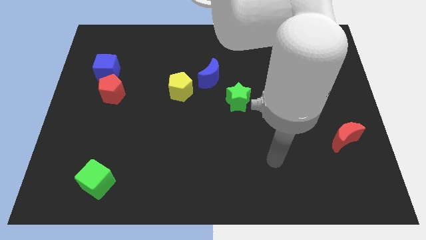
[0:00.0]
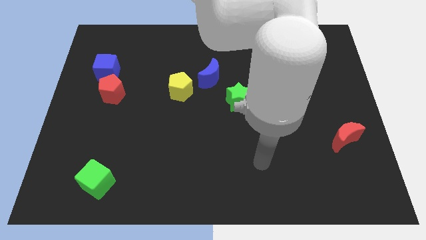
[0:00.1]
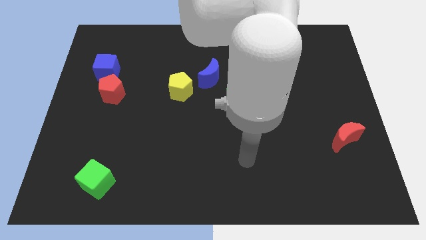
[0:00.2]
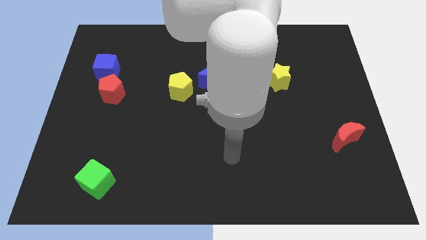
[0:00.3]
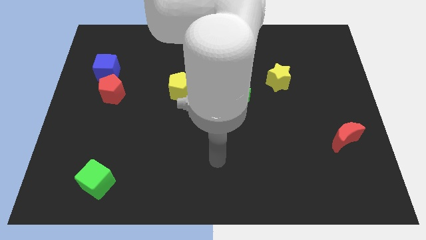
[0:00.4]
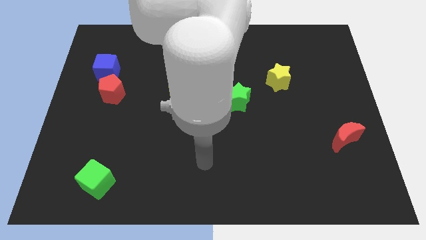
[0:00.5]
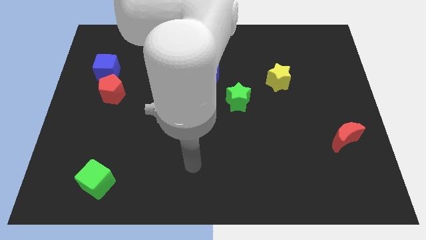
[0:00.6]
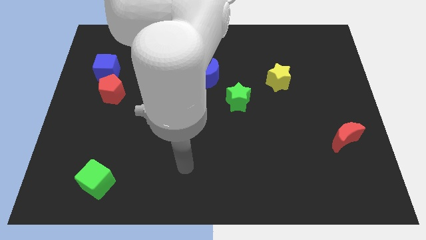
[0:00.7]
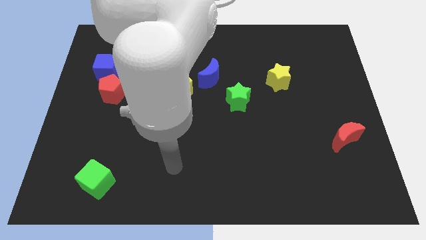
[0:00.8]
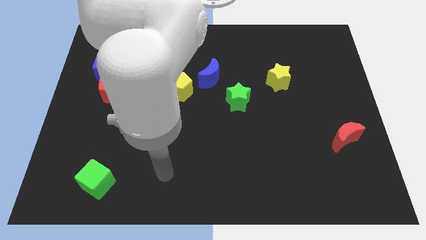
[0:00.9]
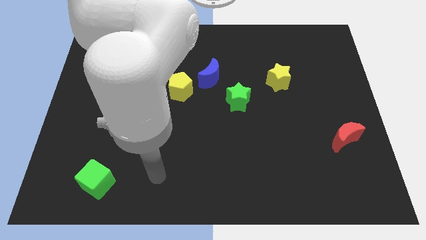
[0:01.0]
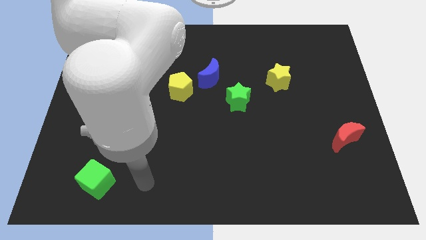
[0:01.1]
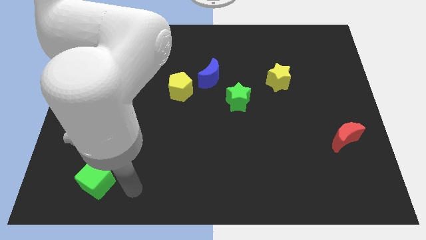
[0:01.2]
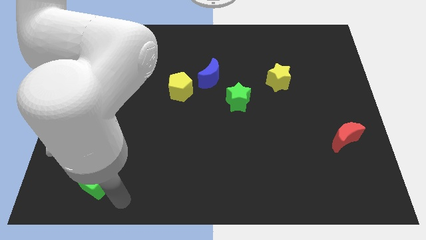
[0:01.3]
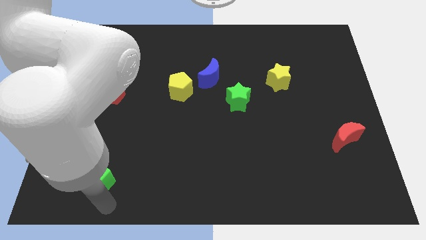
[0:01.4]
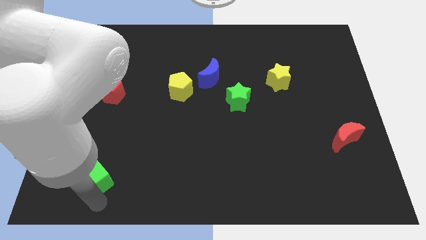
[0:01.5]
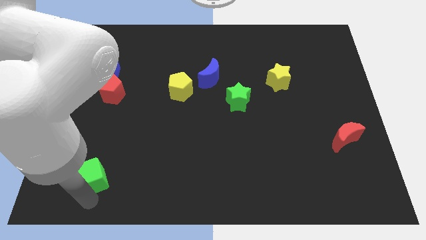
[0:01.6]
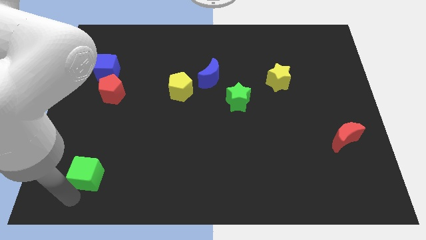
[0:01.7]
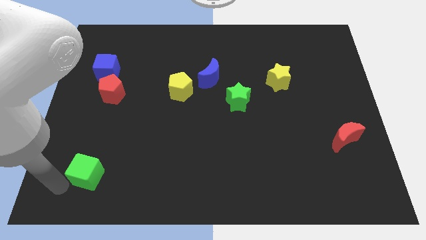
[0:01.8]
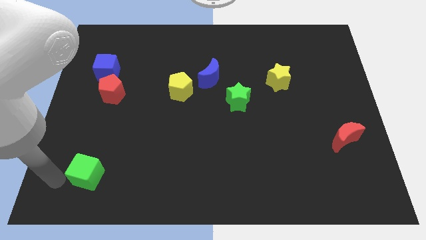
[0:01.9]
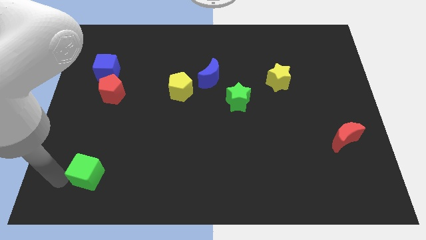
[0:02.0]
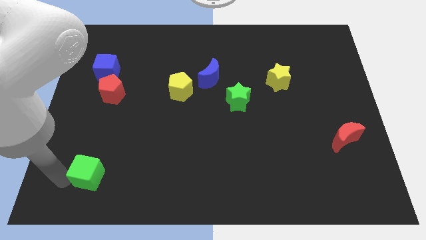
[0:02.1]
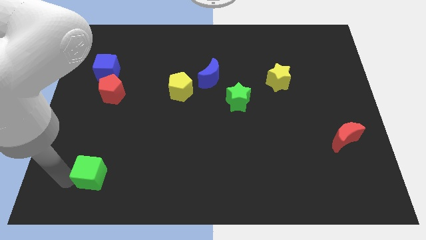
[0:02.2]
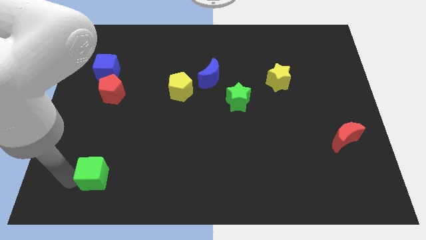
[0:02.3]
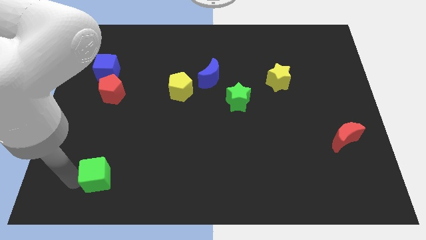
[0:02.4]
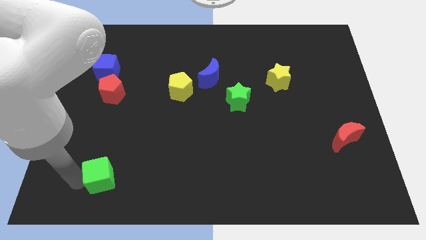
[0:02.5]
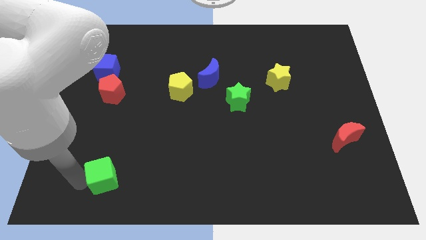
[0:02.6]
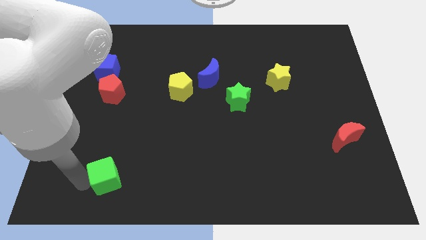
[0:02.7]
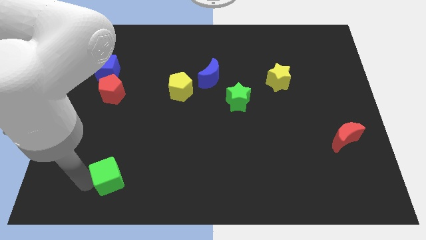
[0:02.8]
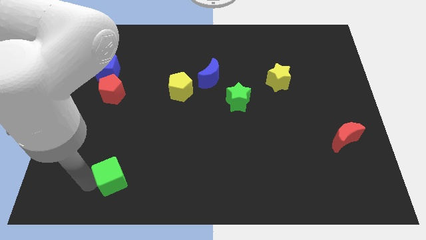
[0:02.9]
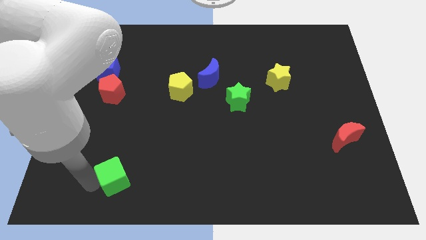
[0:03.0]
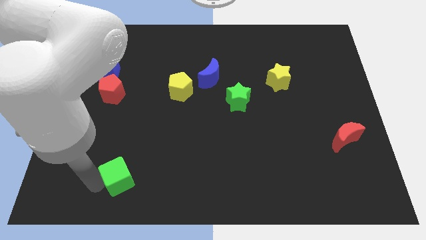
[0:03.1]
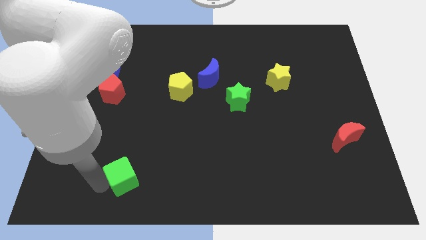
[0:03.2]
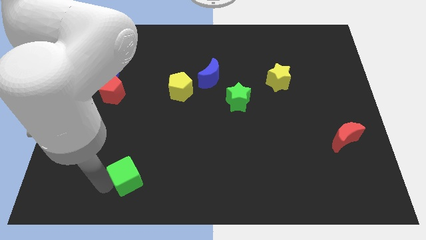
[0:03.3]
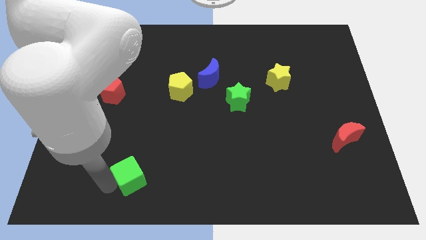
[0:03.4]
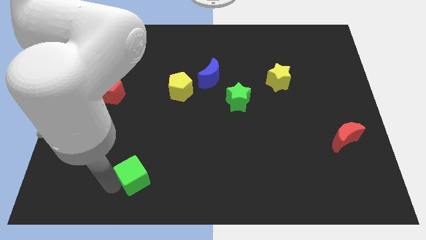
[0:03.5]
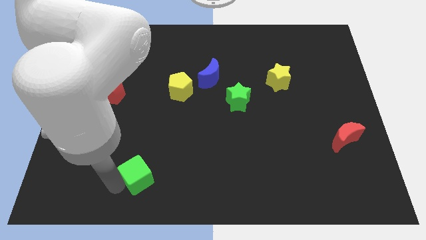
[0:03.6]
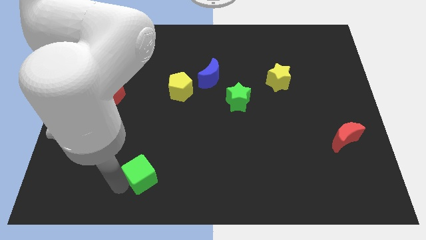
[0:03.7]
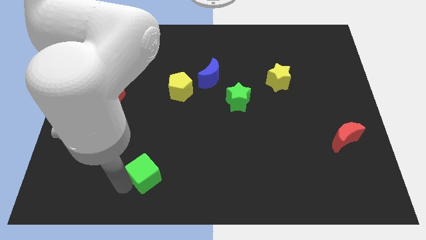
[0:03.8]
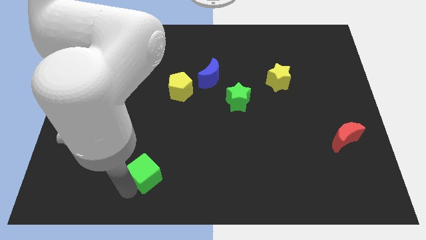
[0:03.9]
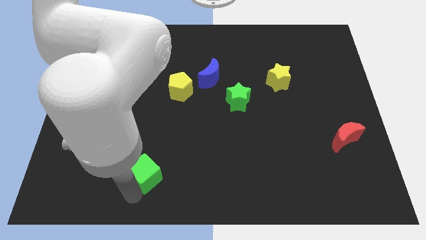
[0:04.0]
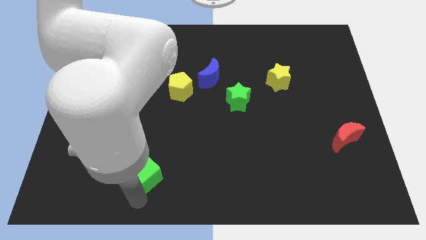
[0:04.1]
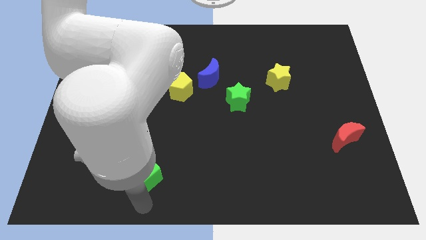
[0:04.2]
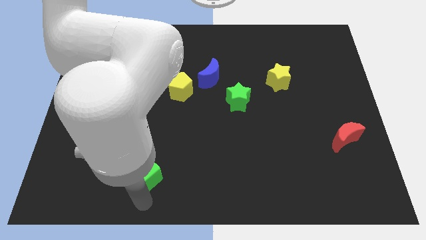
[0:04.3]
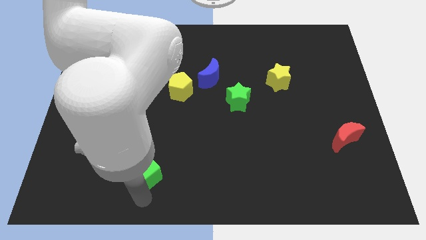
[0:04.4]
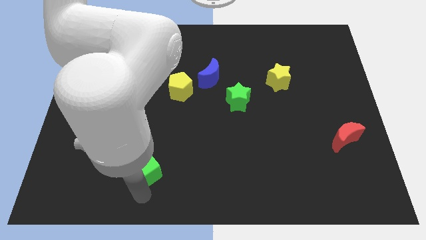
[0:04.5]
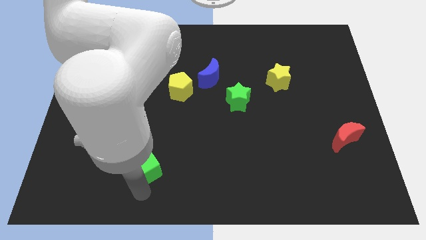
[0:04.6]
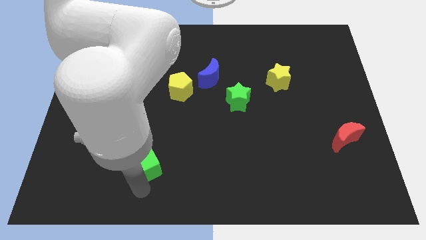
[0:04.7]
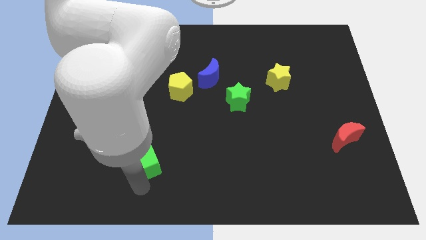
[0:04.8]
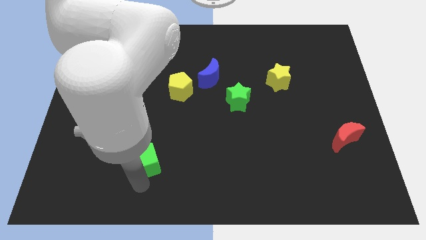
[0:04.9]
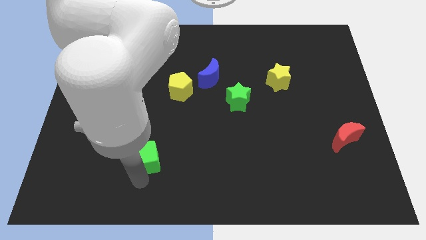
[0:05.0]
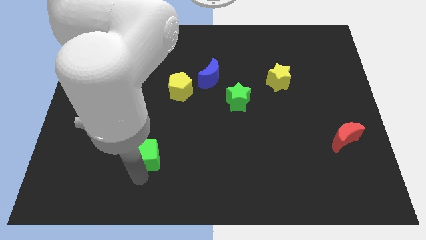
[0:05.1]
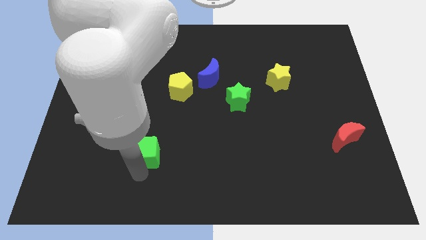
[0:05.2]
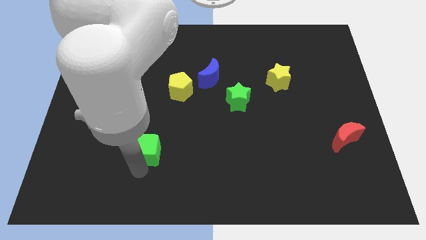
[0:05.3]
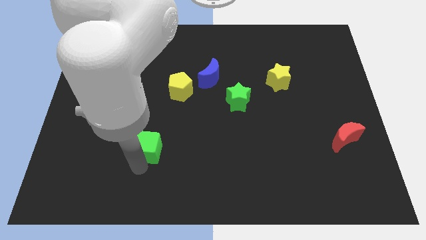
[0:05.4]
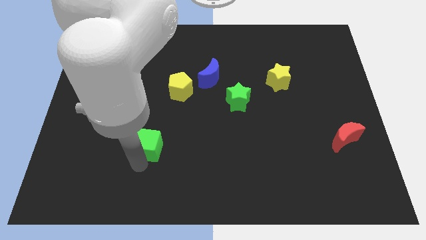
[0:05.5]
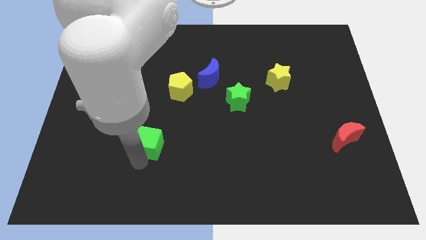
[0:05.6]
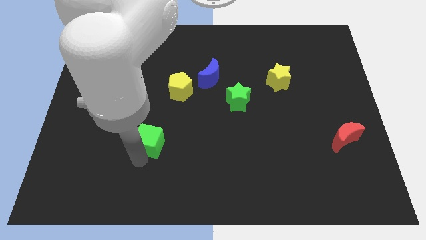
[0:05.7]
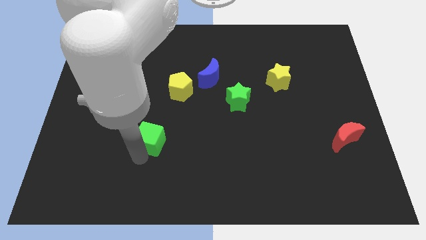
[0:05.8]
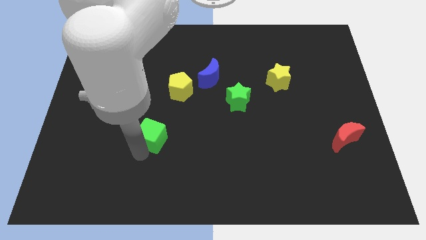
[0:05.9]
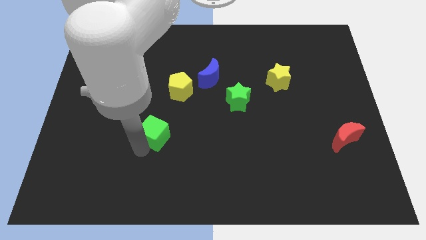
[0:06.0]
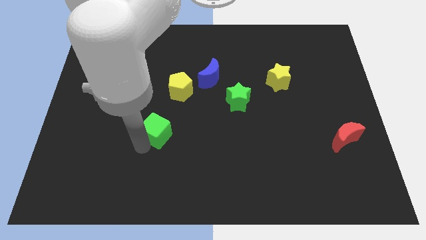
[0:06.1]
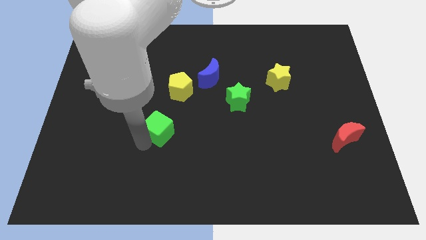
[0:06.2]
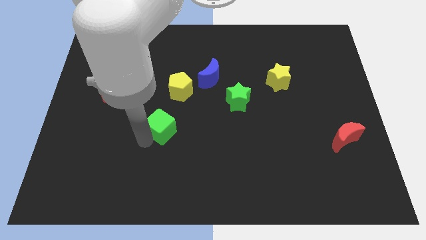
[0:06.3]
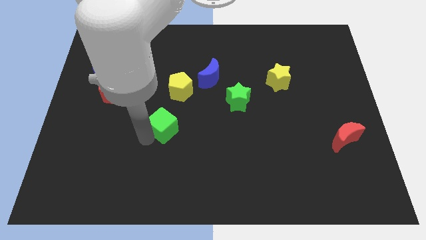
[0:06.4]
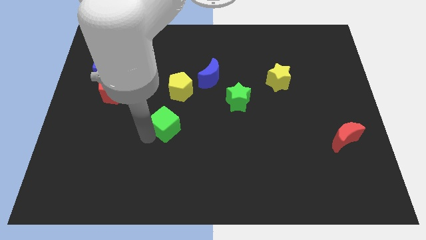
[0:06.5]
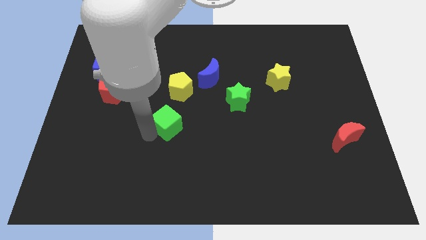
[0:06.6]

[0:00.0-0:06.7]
push the green cube to the middle
